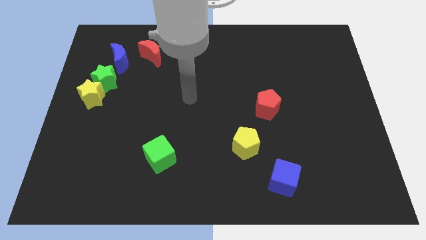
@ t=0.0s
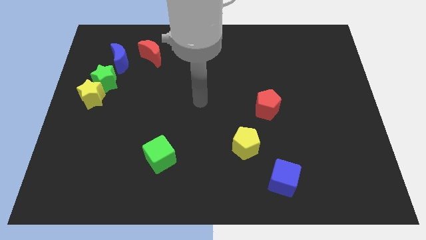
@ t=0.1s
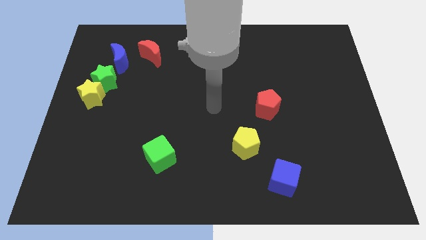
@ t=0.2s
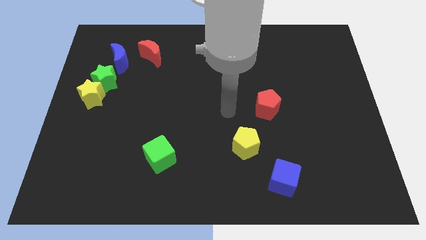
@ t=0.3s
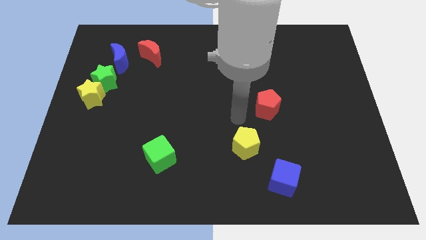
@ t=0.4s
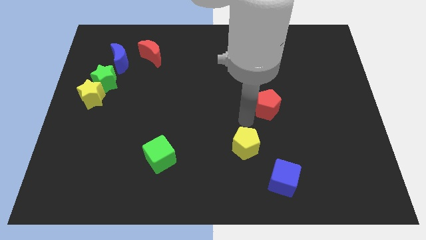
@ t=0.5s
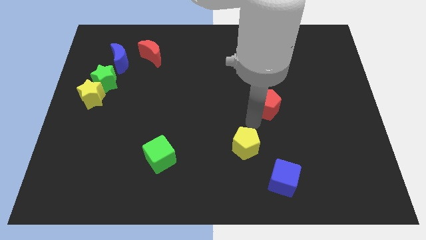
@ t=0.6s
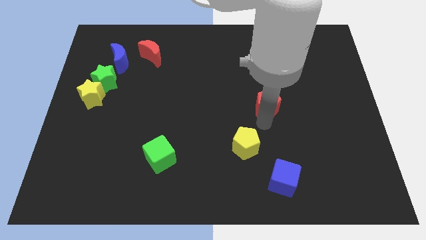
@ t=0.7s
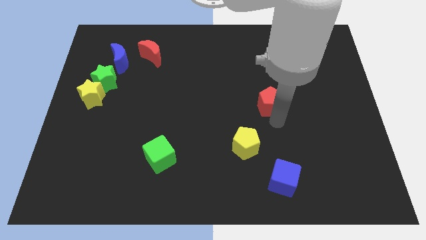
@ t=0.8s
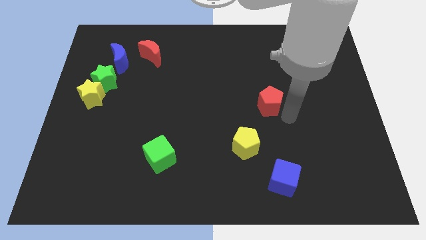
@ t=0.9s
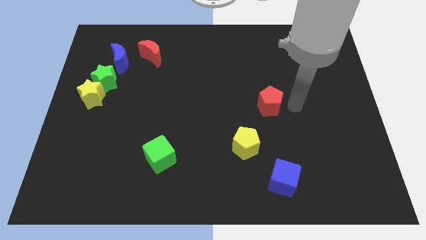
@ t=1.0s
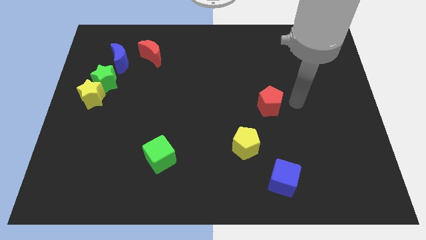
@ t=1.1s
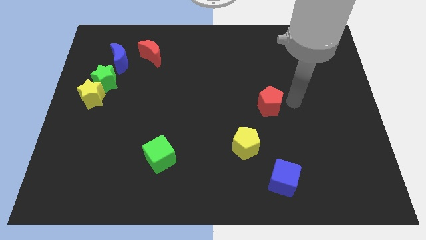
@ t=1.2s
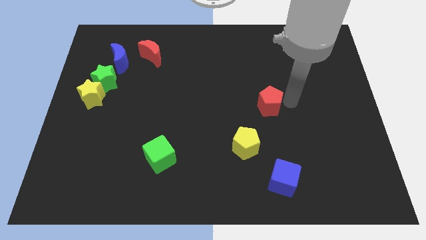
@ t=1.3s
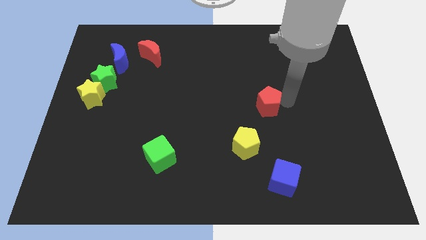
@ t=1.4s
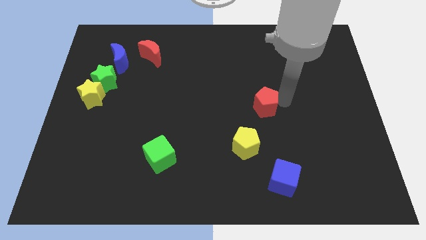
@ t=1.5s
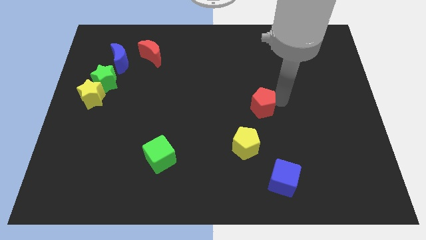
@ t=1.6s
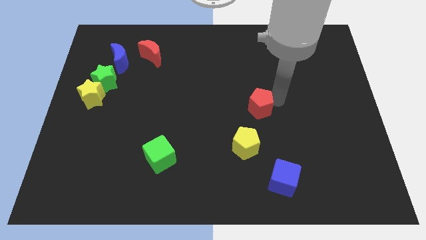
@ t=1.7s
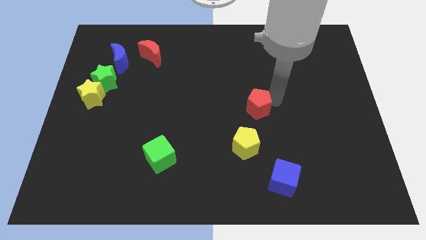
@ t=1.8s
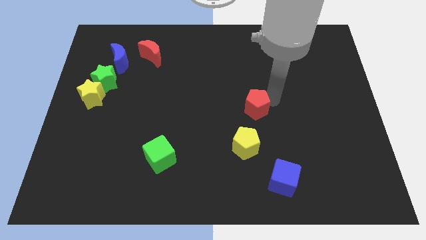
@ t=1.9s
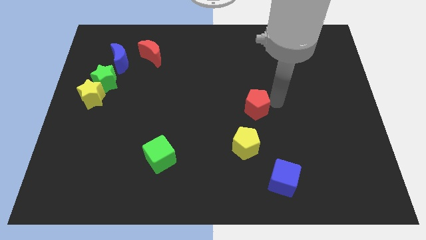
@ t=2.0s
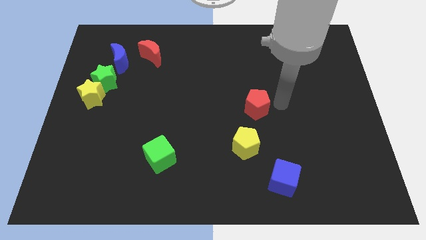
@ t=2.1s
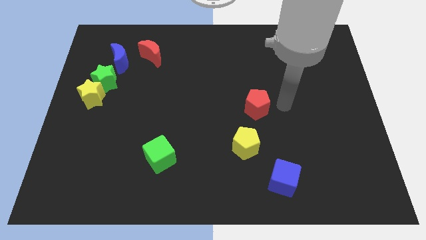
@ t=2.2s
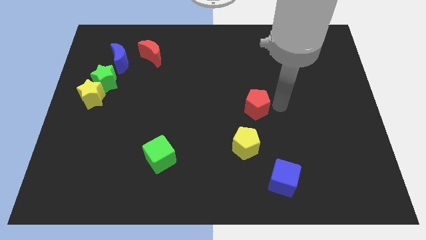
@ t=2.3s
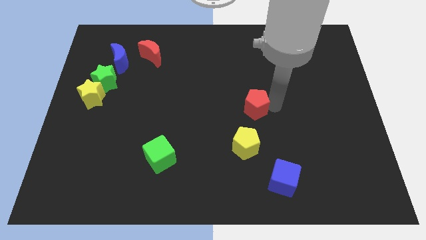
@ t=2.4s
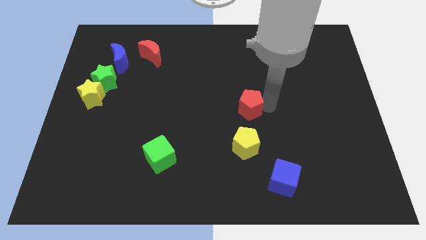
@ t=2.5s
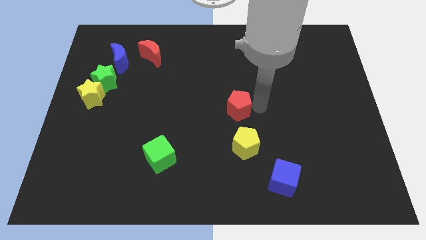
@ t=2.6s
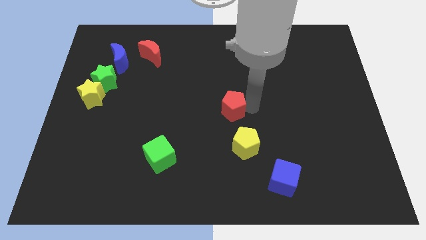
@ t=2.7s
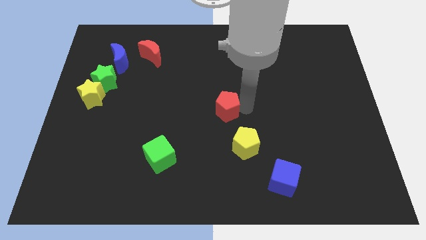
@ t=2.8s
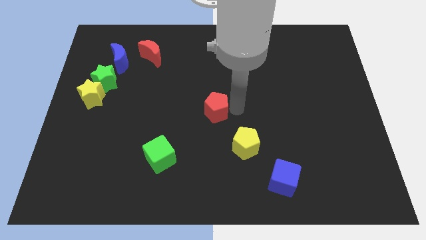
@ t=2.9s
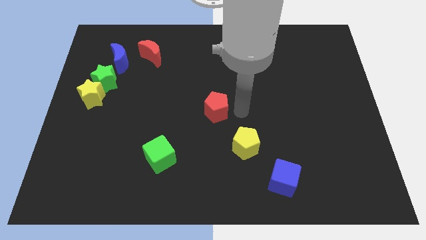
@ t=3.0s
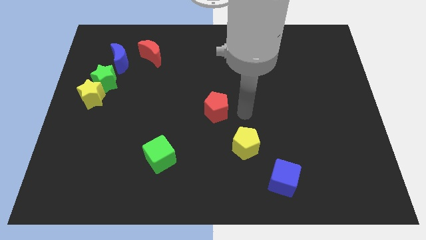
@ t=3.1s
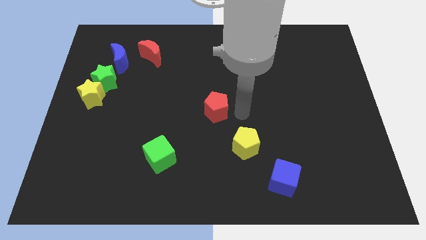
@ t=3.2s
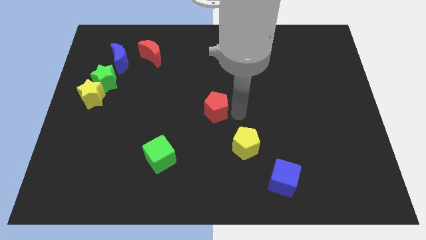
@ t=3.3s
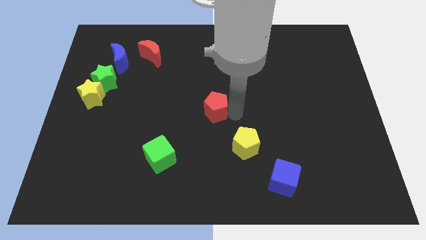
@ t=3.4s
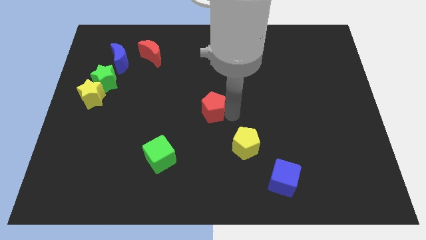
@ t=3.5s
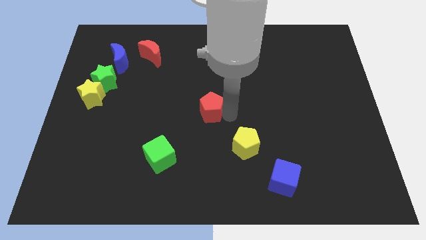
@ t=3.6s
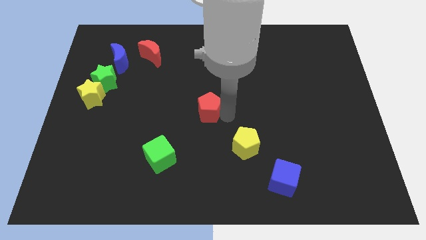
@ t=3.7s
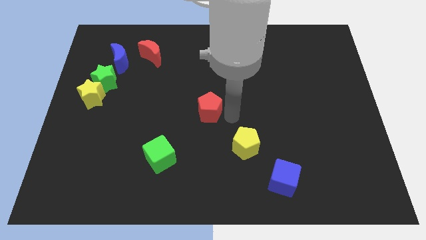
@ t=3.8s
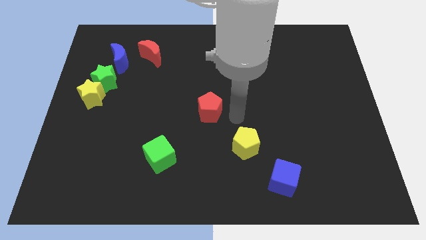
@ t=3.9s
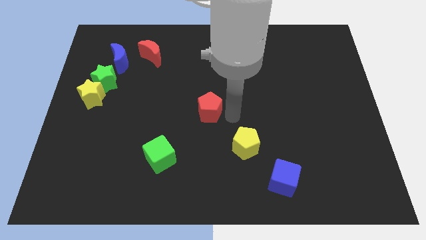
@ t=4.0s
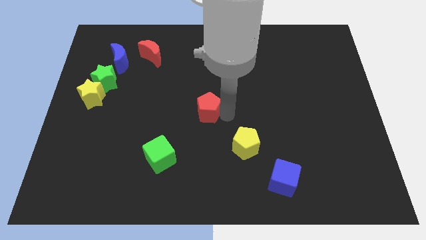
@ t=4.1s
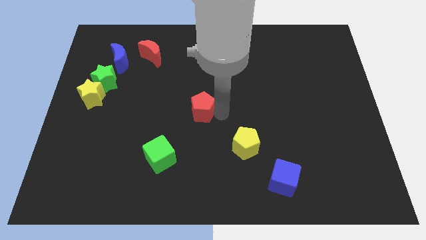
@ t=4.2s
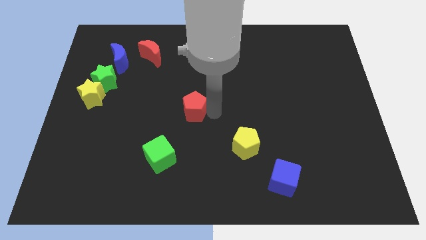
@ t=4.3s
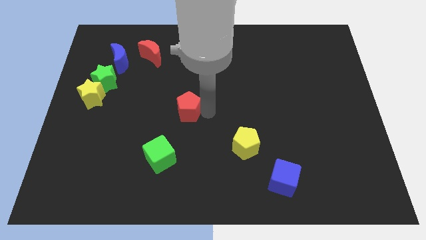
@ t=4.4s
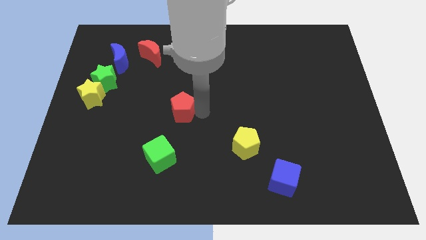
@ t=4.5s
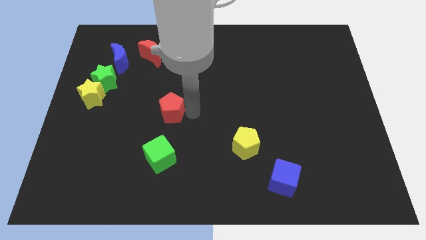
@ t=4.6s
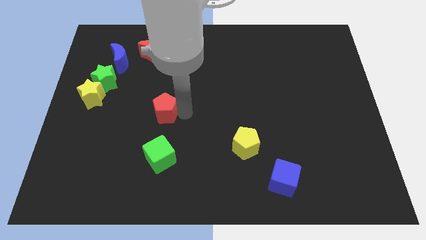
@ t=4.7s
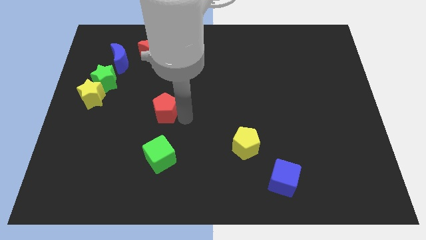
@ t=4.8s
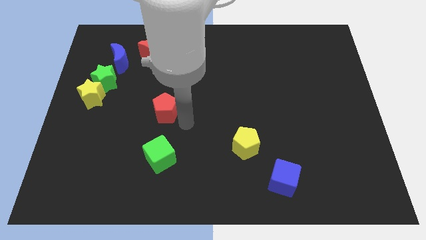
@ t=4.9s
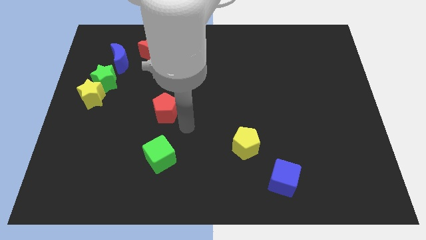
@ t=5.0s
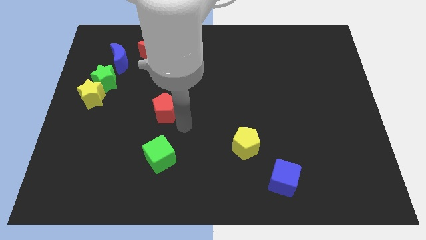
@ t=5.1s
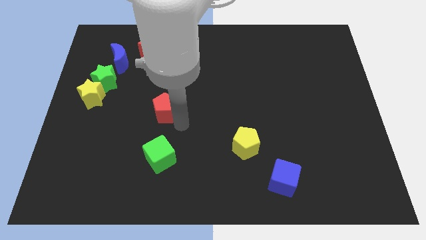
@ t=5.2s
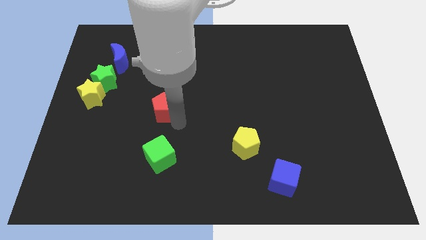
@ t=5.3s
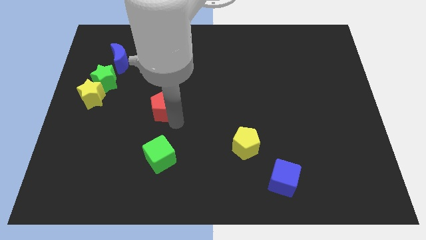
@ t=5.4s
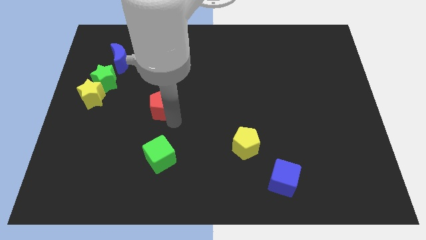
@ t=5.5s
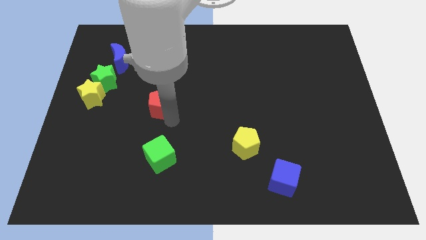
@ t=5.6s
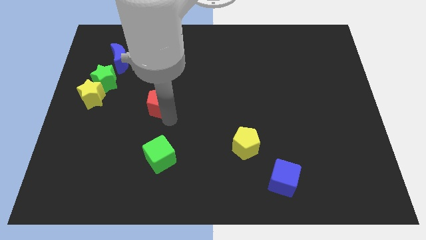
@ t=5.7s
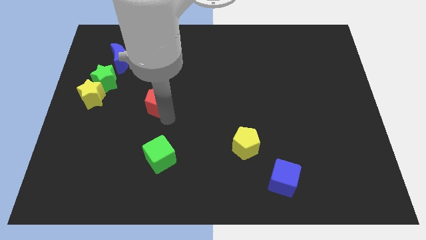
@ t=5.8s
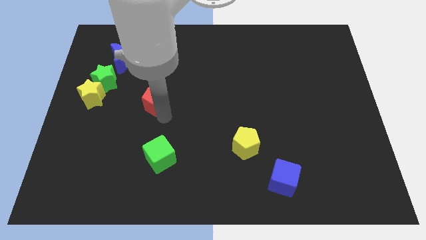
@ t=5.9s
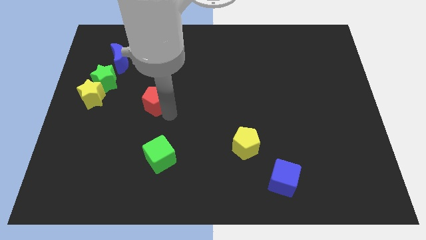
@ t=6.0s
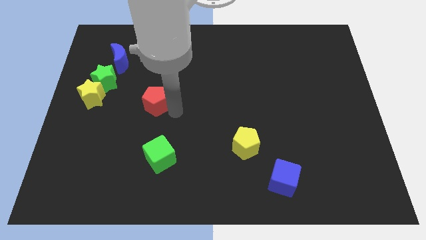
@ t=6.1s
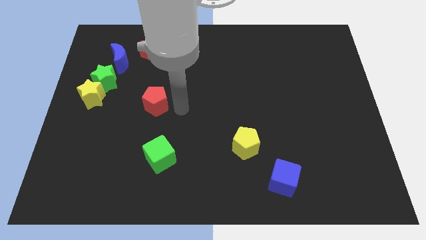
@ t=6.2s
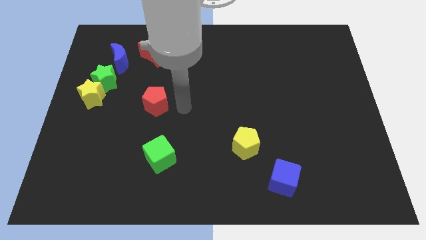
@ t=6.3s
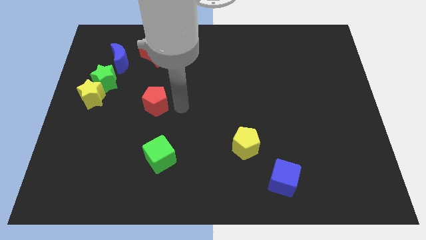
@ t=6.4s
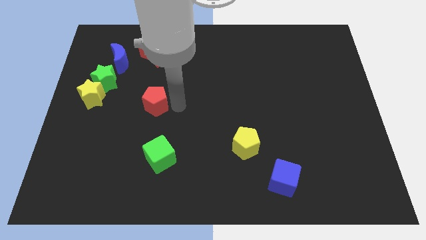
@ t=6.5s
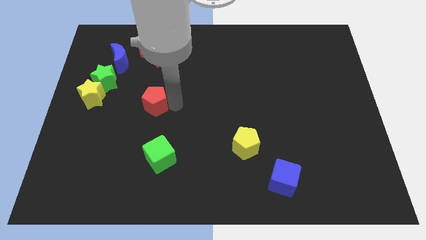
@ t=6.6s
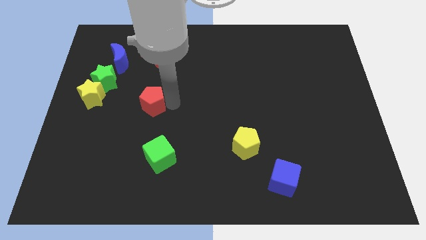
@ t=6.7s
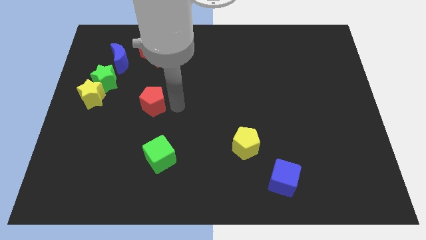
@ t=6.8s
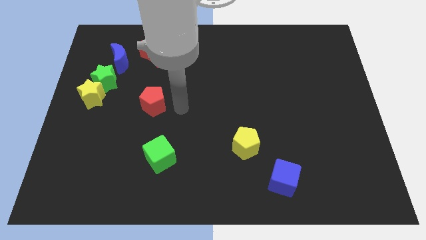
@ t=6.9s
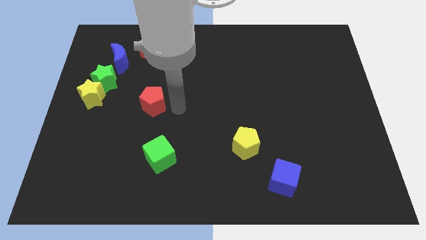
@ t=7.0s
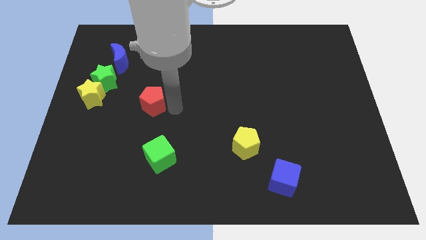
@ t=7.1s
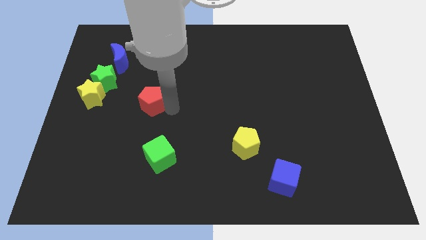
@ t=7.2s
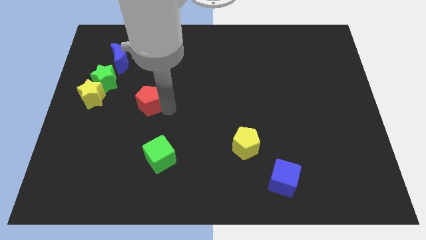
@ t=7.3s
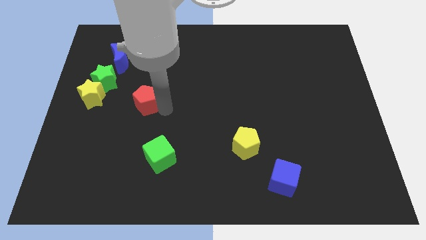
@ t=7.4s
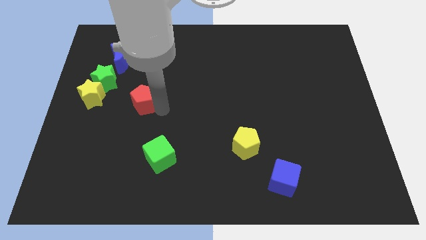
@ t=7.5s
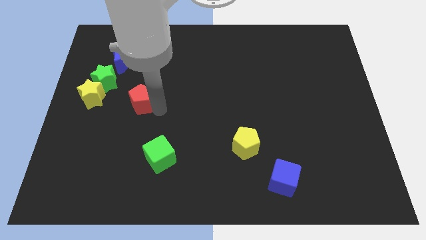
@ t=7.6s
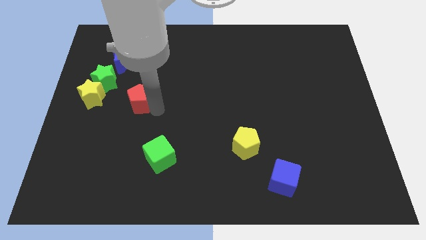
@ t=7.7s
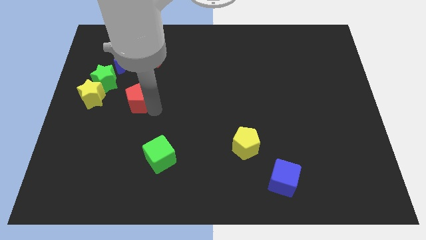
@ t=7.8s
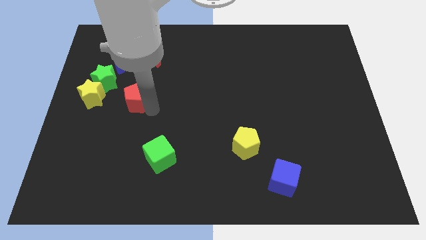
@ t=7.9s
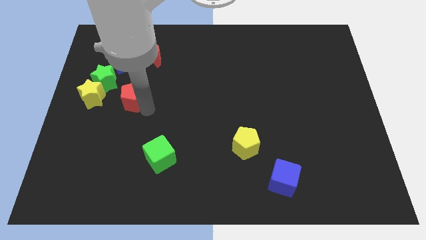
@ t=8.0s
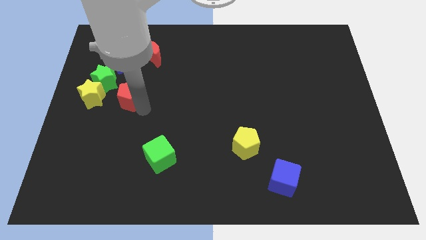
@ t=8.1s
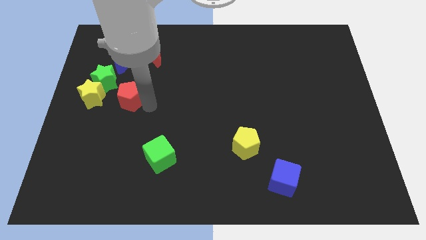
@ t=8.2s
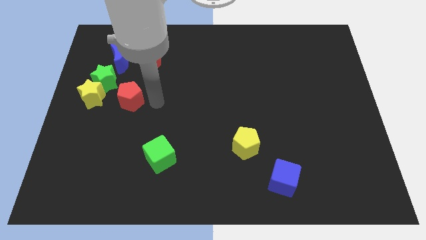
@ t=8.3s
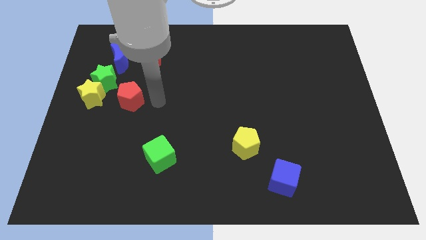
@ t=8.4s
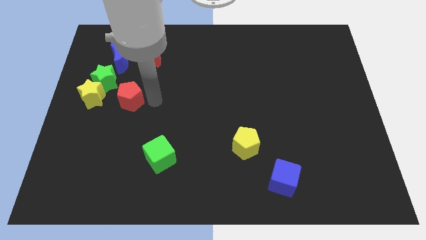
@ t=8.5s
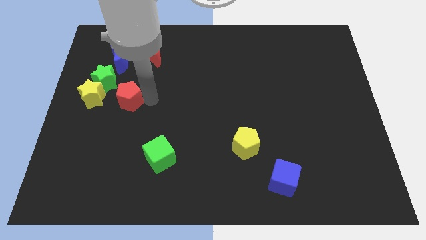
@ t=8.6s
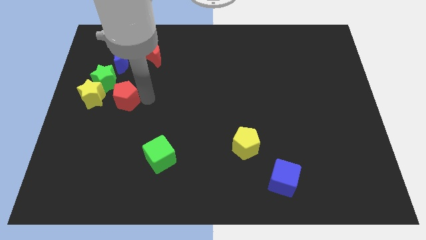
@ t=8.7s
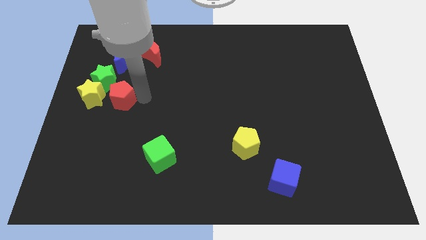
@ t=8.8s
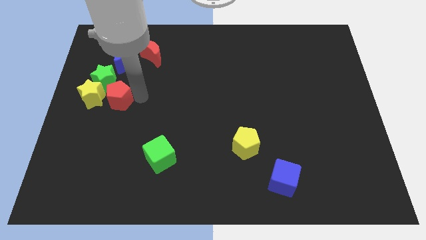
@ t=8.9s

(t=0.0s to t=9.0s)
put the red pentagon close to the yellow star
